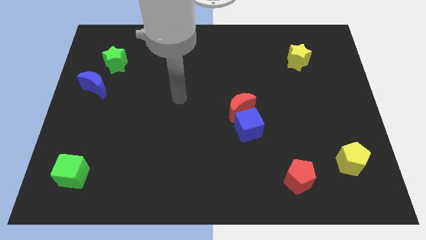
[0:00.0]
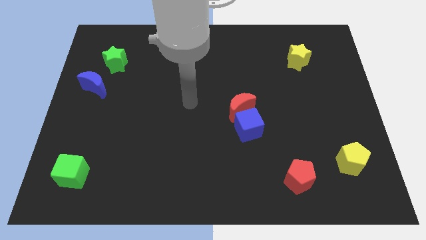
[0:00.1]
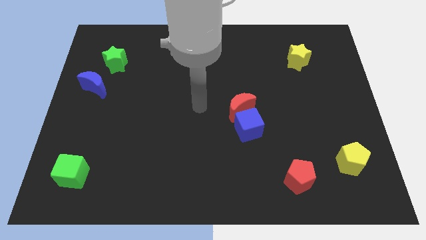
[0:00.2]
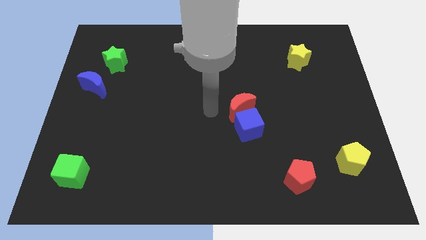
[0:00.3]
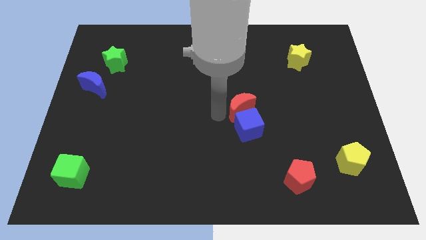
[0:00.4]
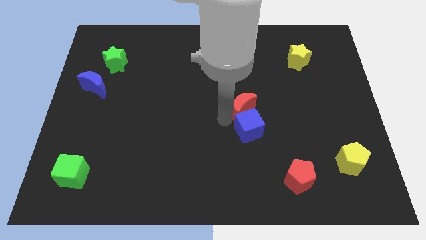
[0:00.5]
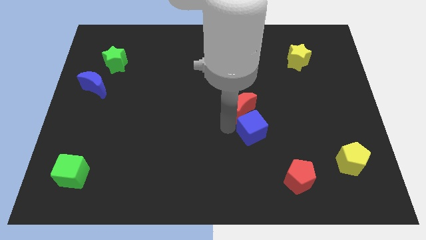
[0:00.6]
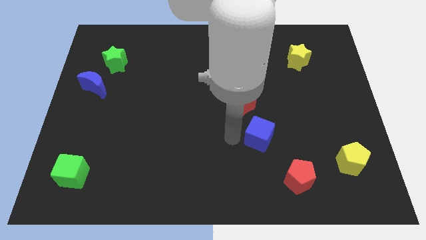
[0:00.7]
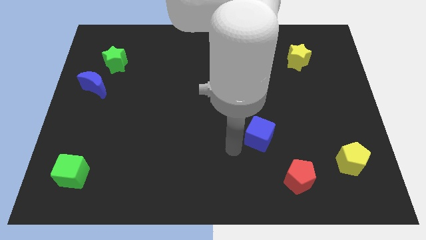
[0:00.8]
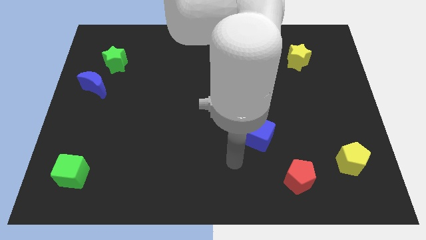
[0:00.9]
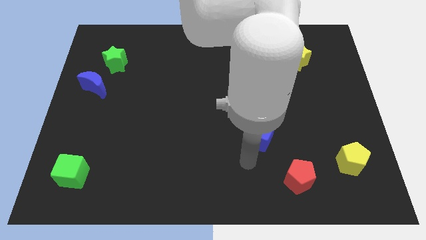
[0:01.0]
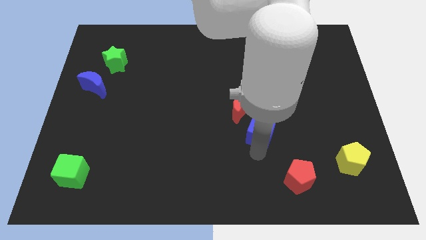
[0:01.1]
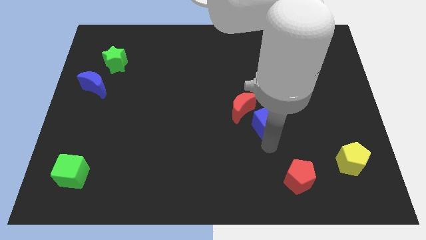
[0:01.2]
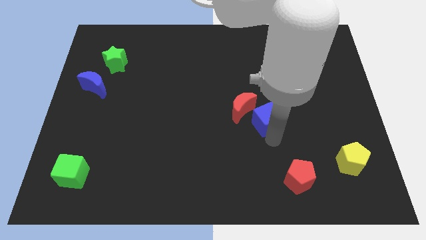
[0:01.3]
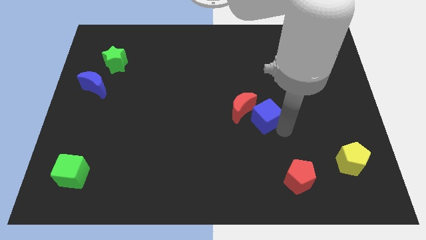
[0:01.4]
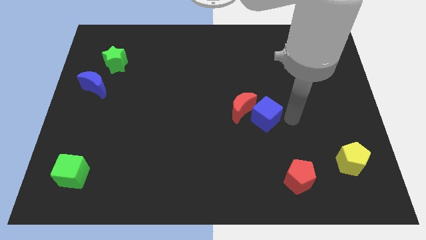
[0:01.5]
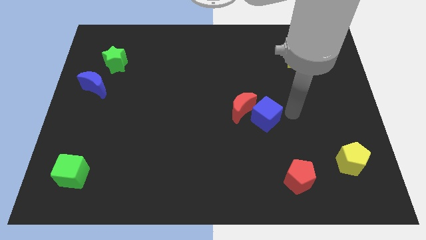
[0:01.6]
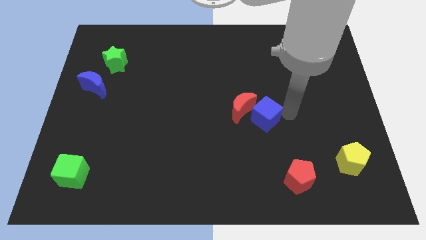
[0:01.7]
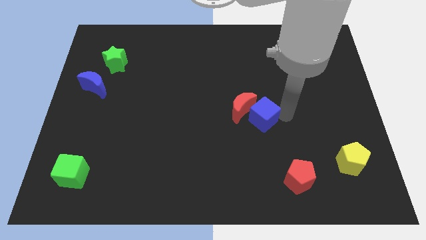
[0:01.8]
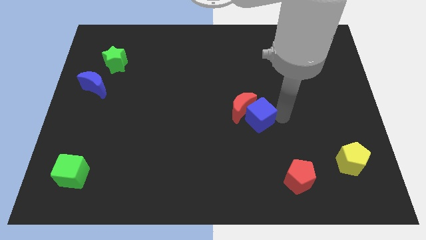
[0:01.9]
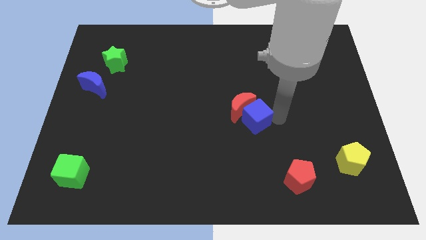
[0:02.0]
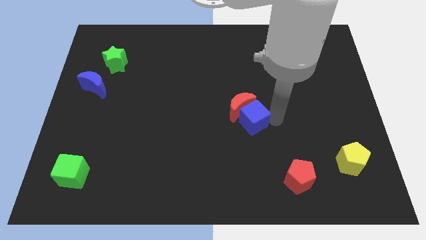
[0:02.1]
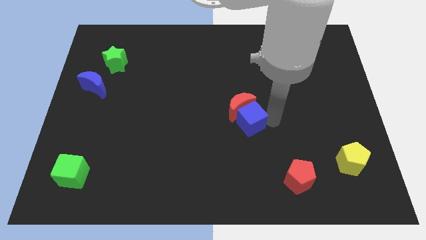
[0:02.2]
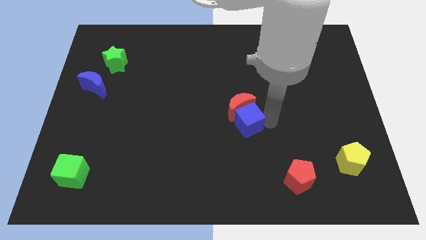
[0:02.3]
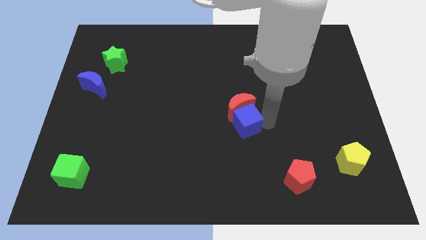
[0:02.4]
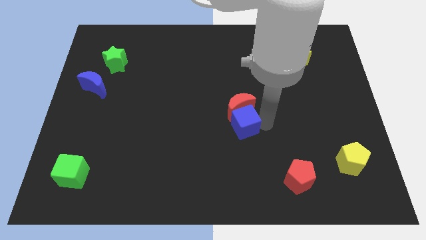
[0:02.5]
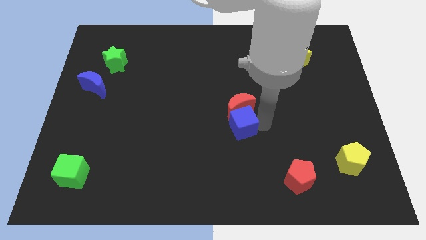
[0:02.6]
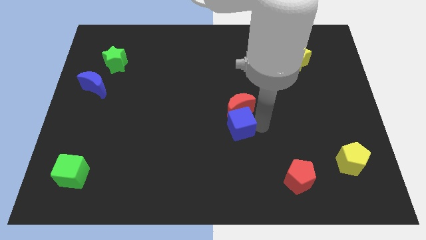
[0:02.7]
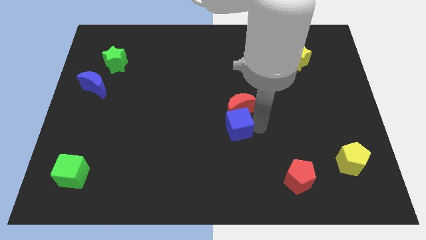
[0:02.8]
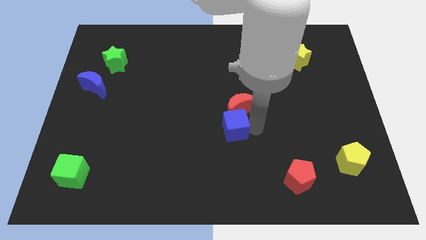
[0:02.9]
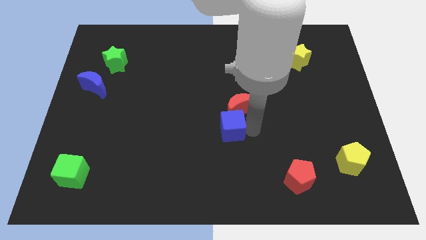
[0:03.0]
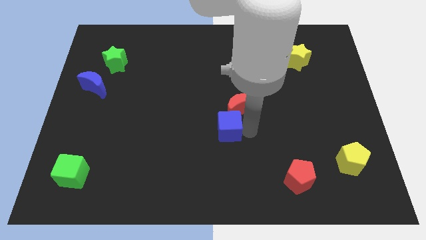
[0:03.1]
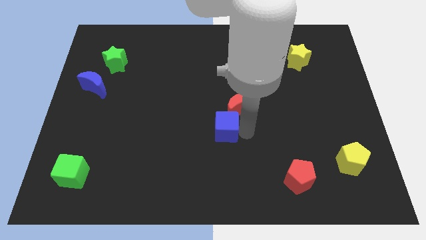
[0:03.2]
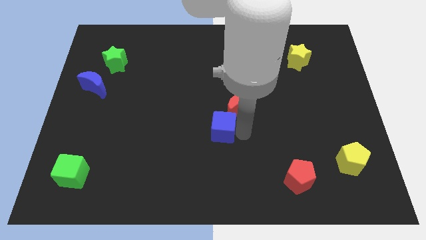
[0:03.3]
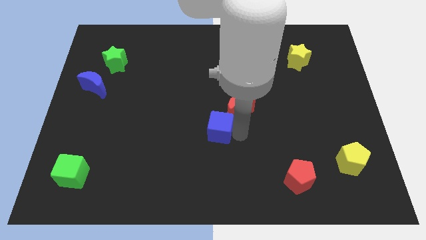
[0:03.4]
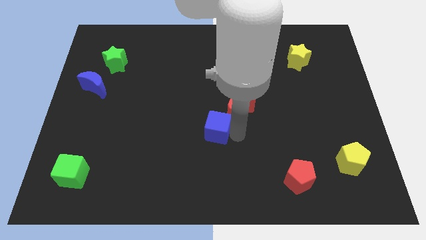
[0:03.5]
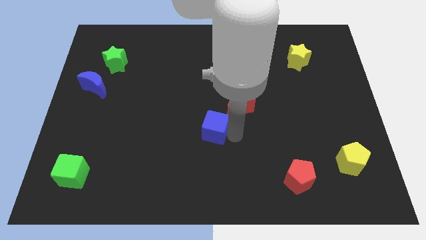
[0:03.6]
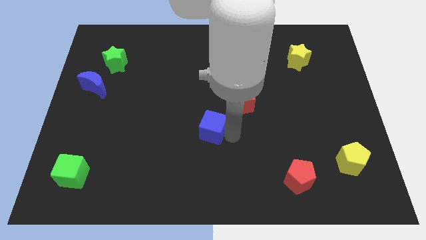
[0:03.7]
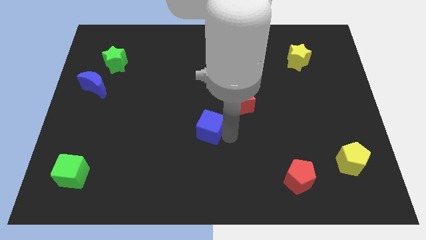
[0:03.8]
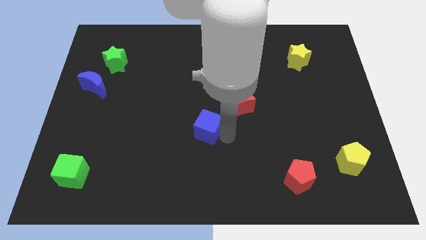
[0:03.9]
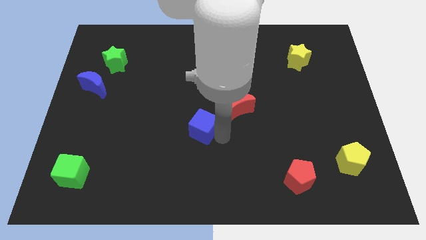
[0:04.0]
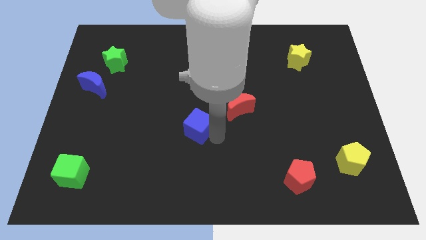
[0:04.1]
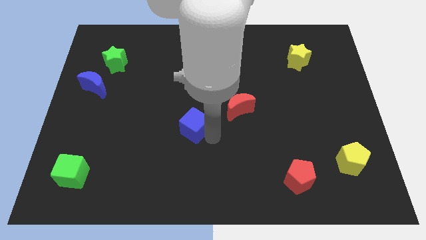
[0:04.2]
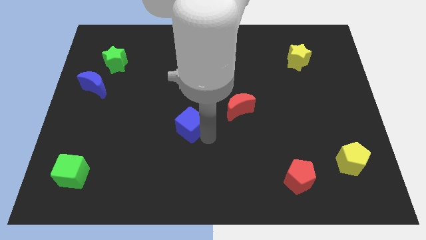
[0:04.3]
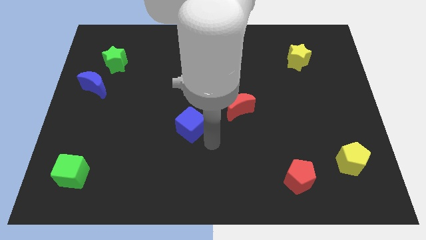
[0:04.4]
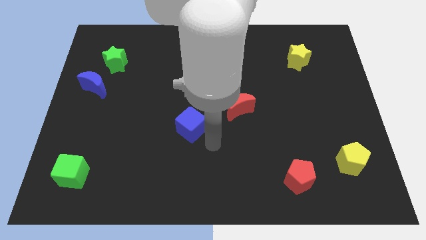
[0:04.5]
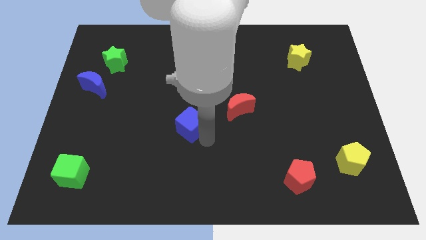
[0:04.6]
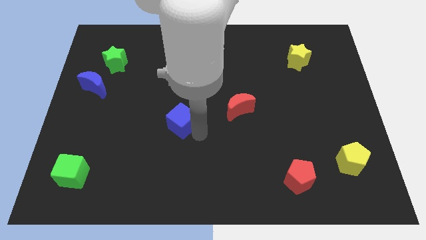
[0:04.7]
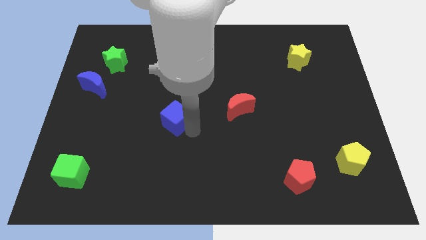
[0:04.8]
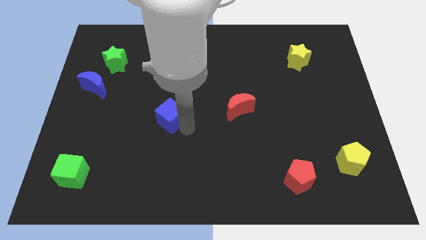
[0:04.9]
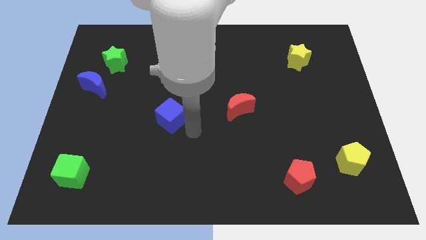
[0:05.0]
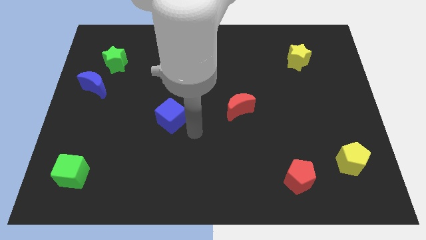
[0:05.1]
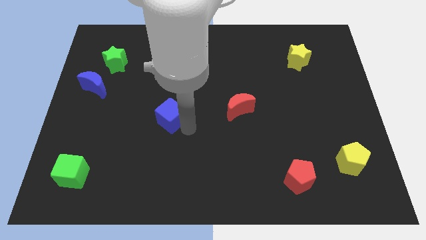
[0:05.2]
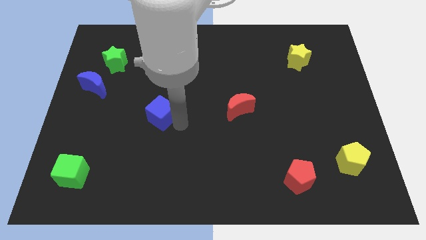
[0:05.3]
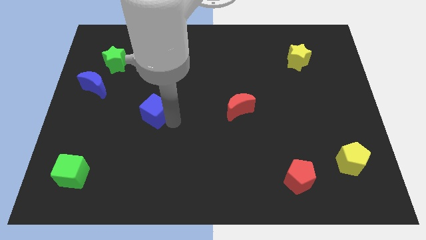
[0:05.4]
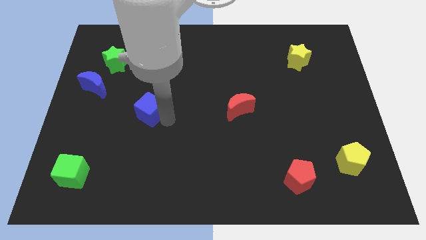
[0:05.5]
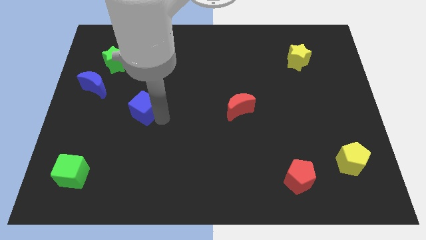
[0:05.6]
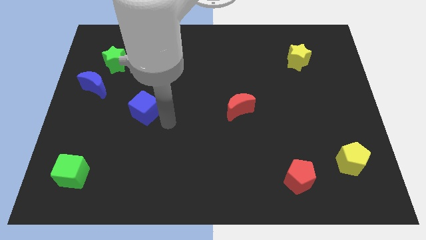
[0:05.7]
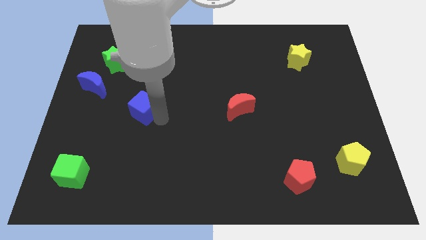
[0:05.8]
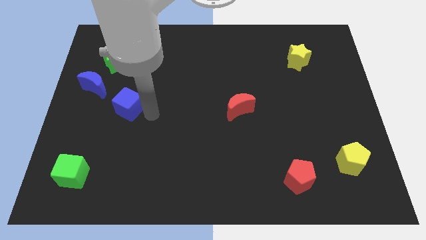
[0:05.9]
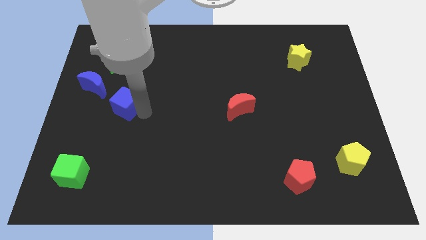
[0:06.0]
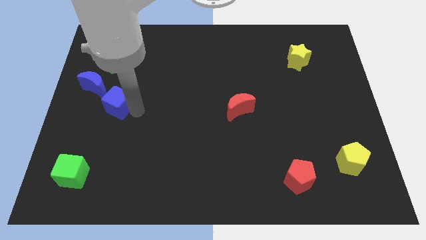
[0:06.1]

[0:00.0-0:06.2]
slide the blue cube below the green star

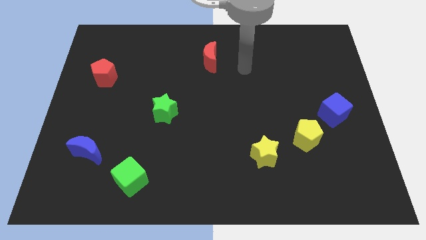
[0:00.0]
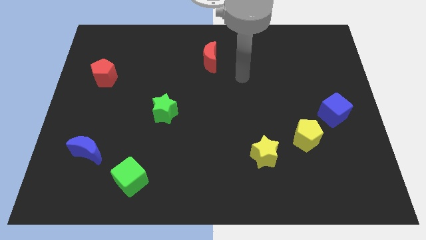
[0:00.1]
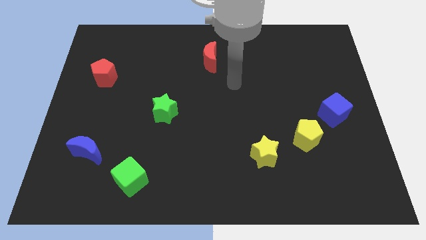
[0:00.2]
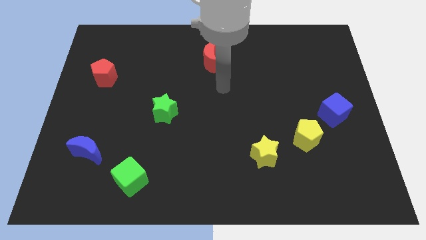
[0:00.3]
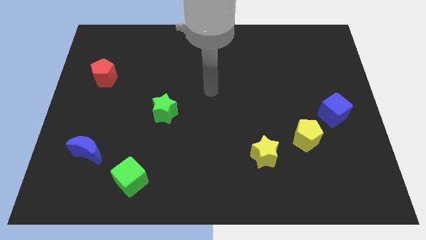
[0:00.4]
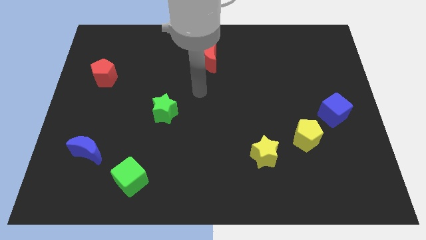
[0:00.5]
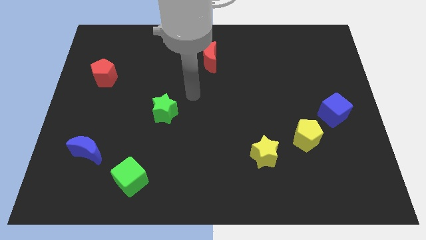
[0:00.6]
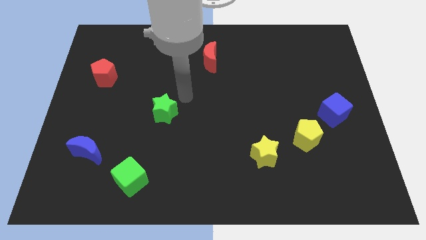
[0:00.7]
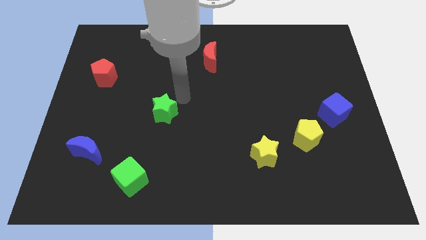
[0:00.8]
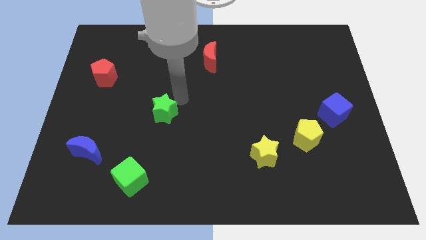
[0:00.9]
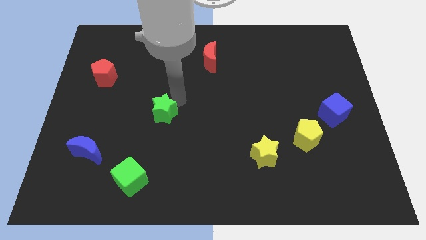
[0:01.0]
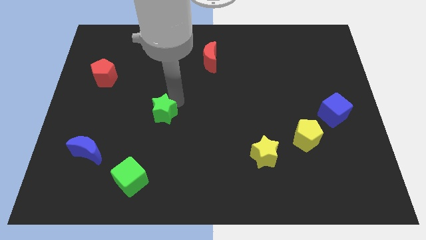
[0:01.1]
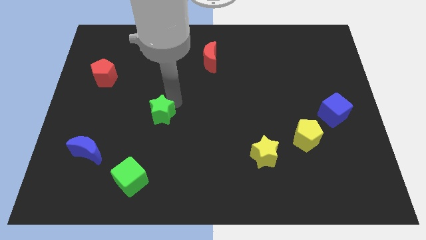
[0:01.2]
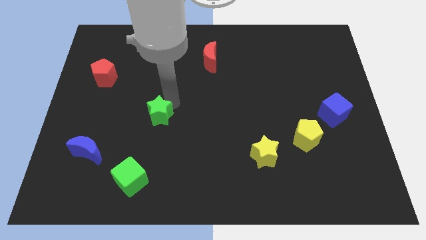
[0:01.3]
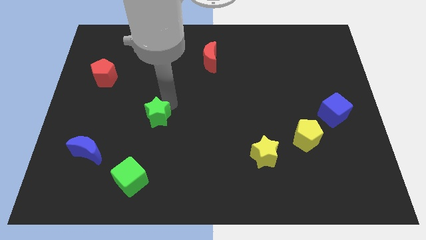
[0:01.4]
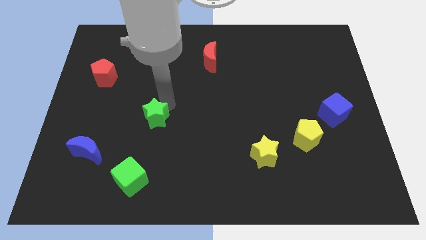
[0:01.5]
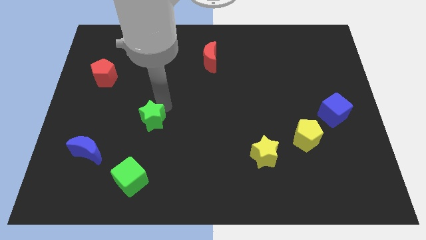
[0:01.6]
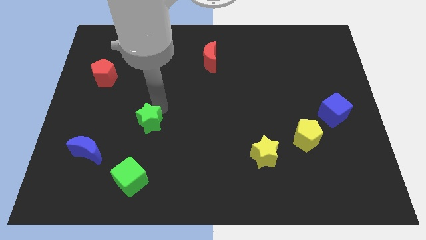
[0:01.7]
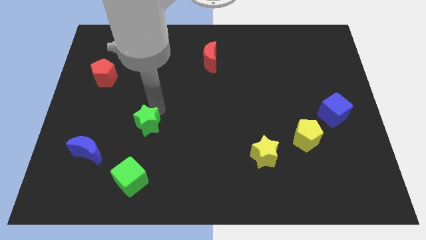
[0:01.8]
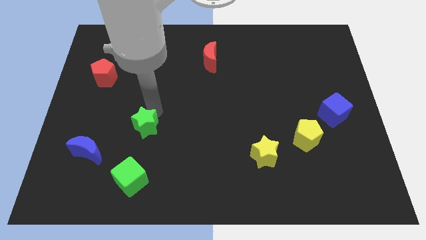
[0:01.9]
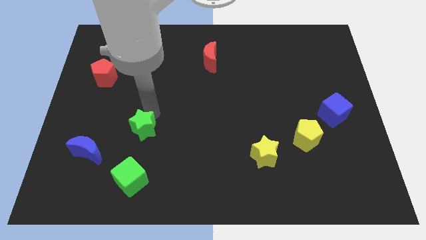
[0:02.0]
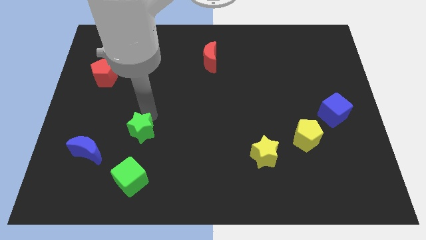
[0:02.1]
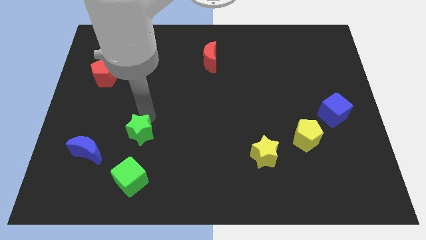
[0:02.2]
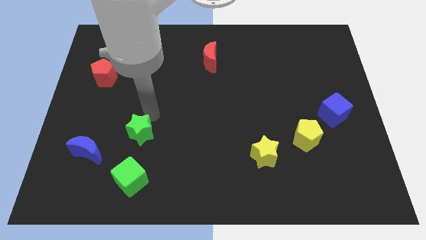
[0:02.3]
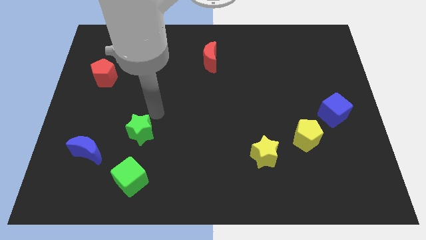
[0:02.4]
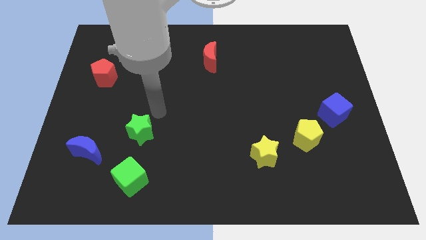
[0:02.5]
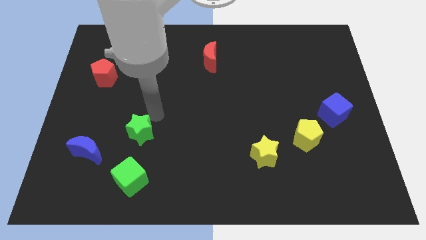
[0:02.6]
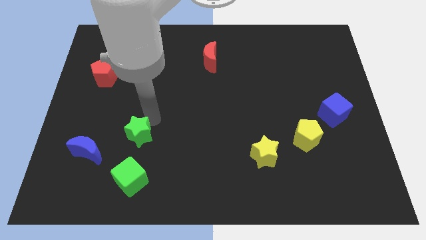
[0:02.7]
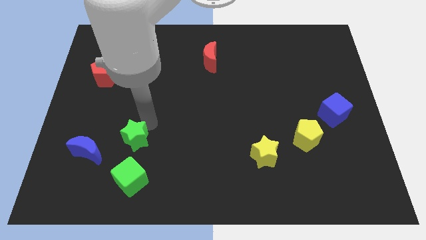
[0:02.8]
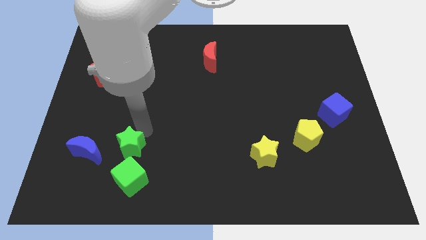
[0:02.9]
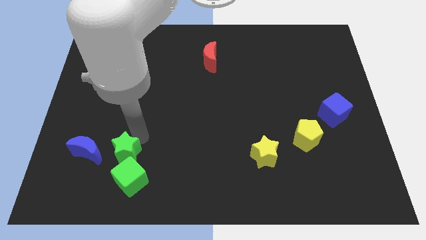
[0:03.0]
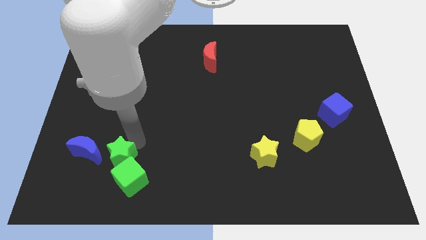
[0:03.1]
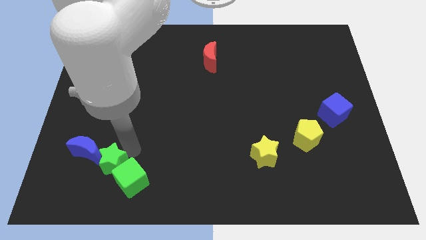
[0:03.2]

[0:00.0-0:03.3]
put the green star just left of the green cube
